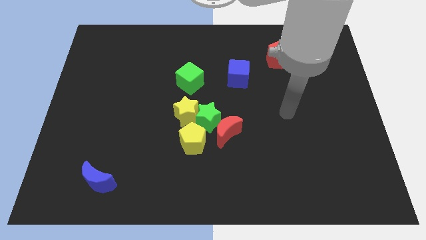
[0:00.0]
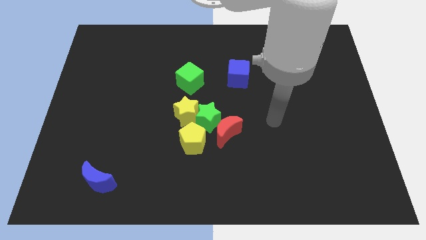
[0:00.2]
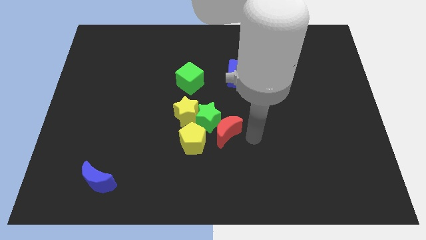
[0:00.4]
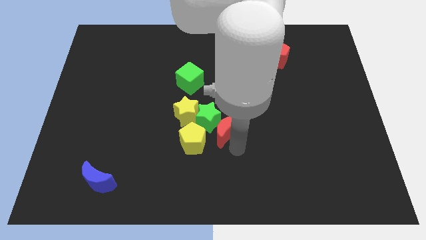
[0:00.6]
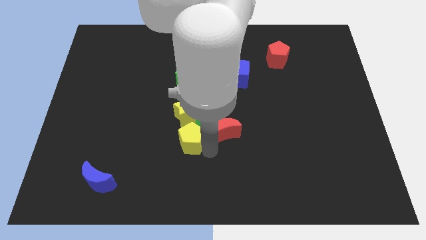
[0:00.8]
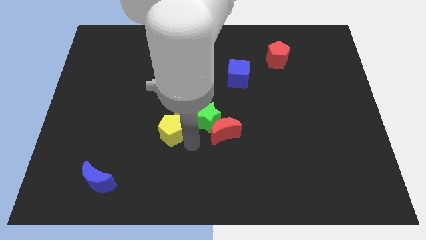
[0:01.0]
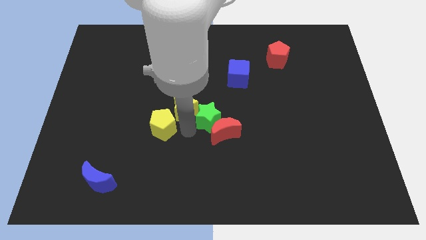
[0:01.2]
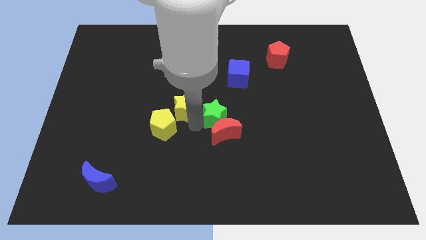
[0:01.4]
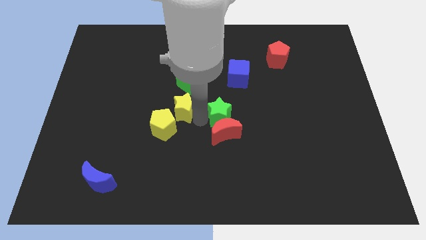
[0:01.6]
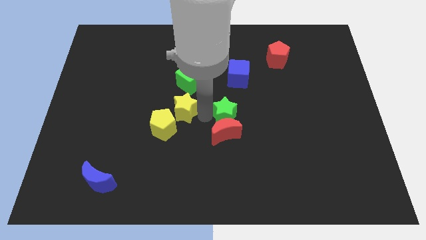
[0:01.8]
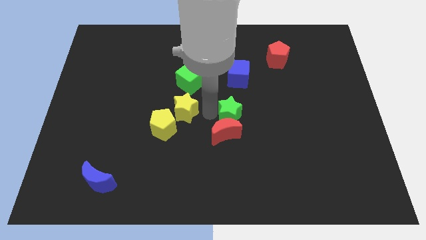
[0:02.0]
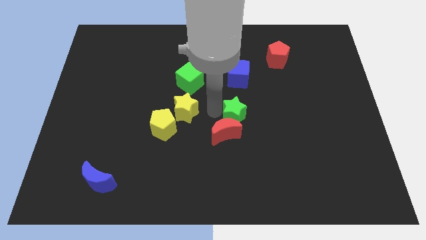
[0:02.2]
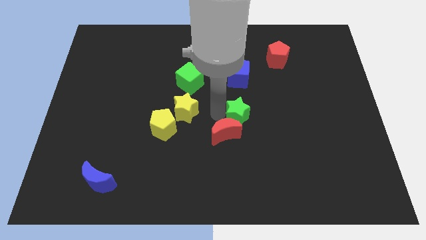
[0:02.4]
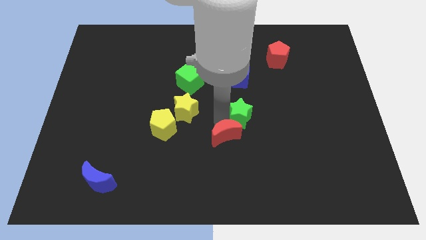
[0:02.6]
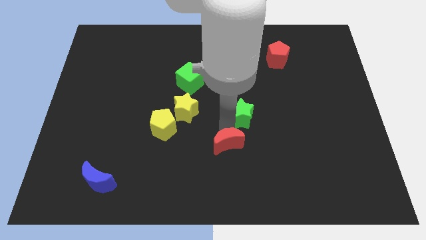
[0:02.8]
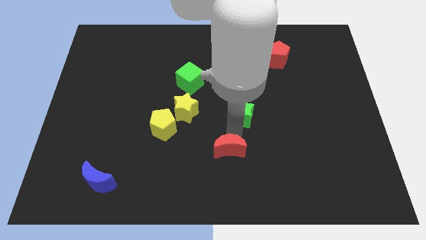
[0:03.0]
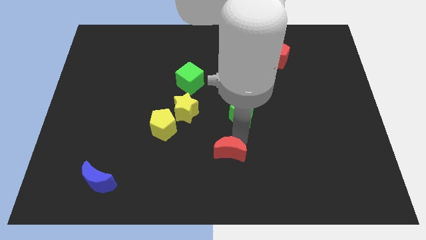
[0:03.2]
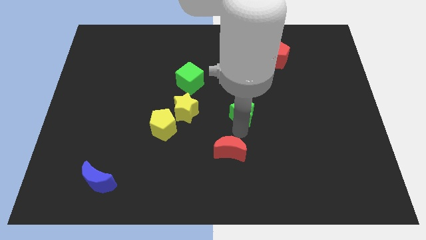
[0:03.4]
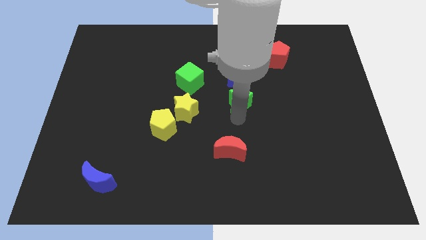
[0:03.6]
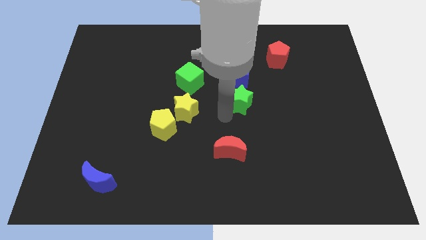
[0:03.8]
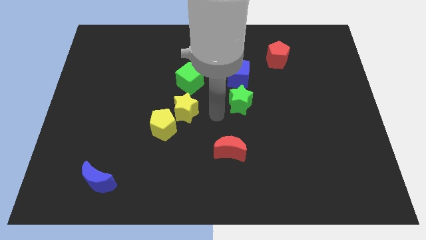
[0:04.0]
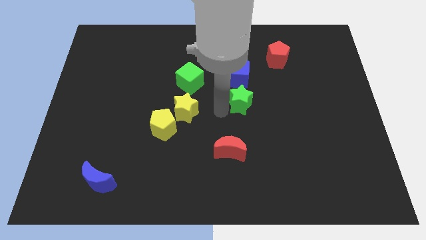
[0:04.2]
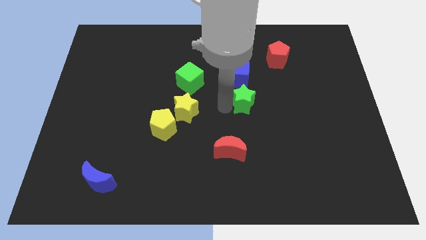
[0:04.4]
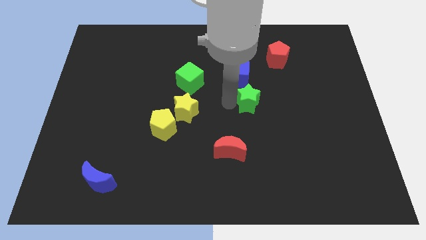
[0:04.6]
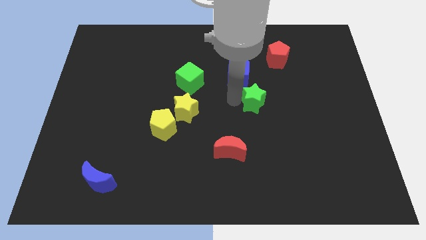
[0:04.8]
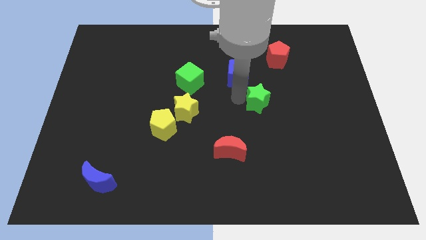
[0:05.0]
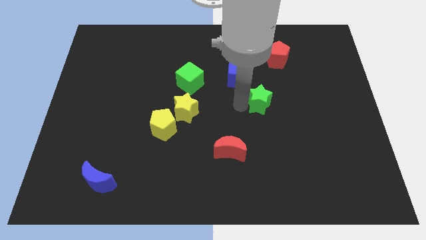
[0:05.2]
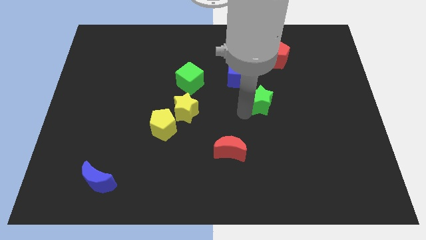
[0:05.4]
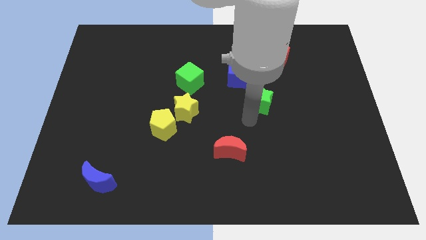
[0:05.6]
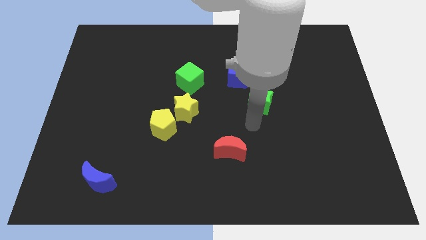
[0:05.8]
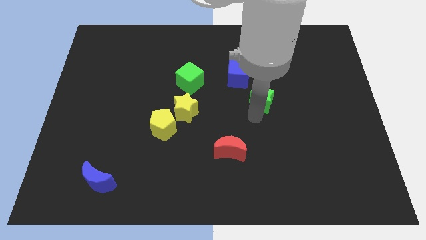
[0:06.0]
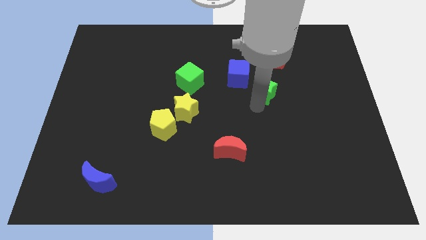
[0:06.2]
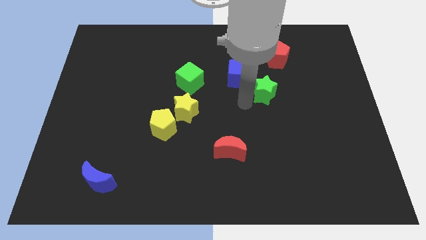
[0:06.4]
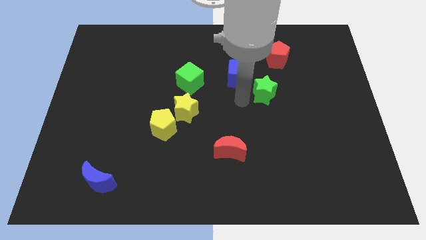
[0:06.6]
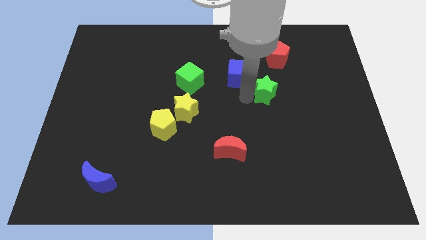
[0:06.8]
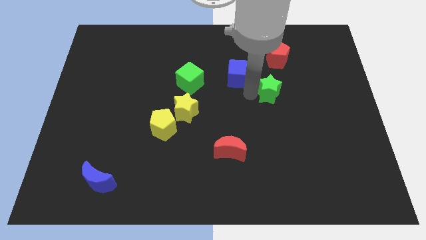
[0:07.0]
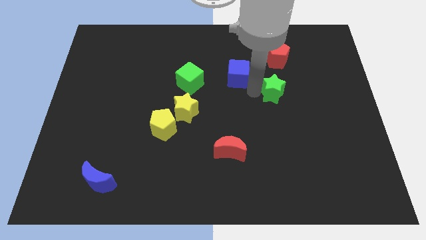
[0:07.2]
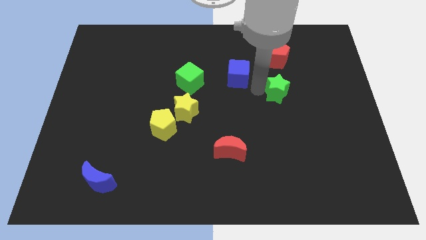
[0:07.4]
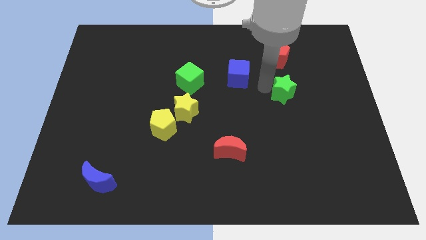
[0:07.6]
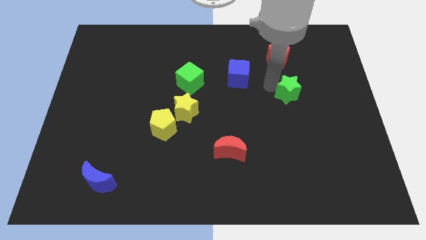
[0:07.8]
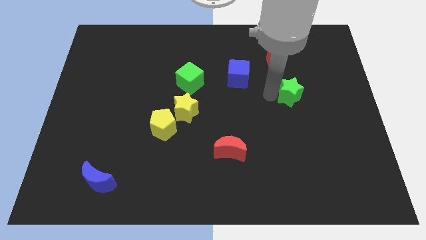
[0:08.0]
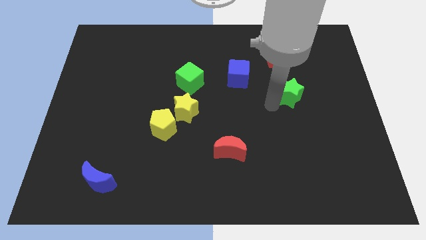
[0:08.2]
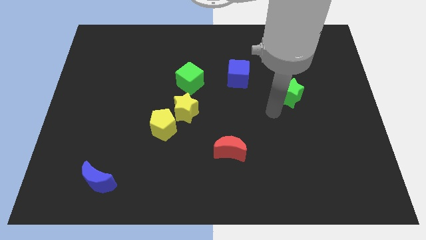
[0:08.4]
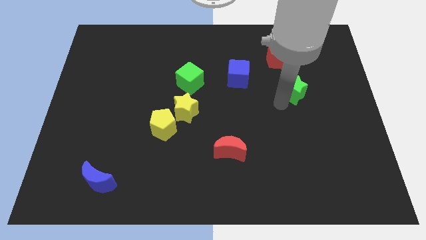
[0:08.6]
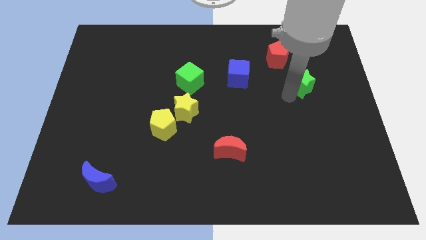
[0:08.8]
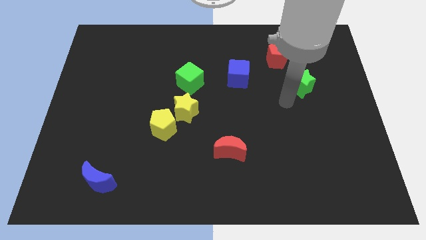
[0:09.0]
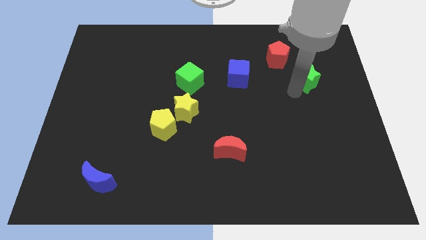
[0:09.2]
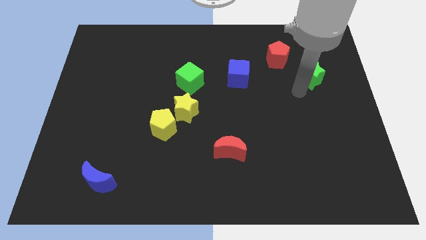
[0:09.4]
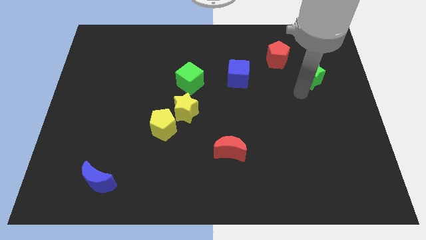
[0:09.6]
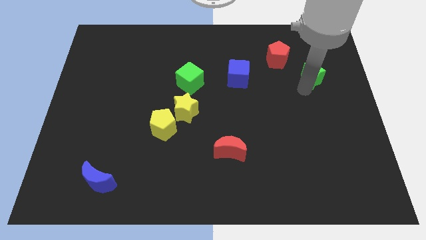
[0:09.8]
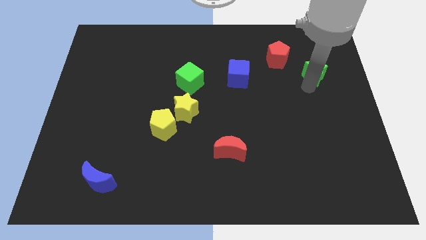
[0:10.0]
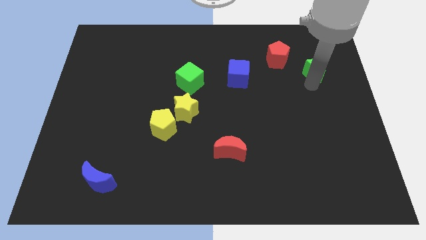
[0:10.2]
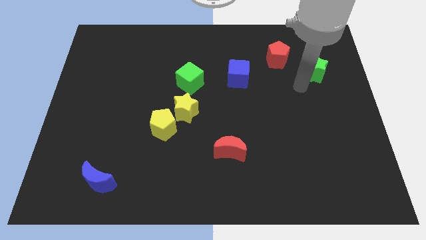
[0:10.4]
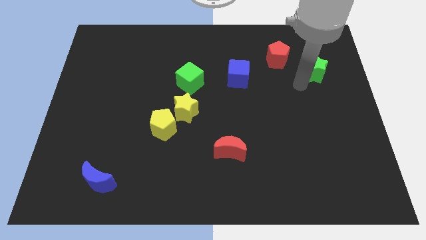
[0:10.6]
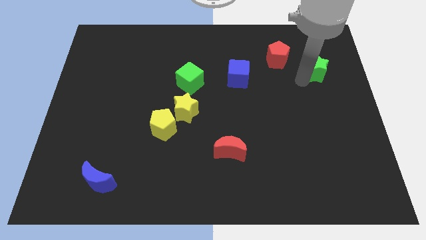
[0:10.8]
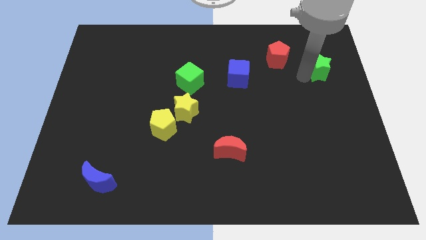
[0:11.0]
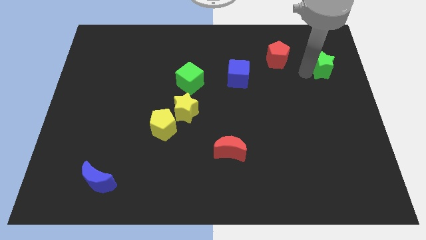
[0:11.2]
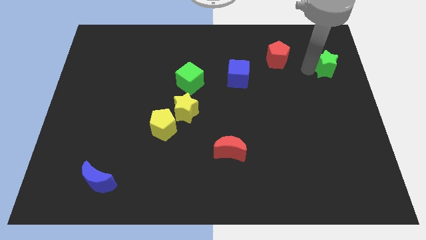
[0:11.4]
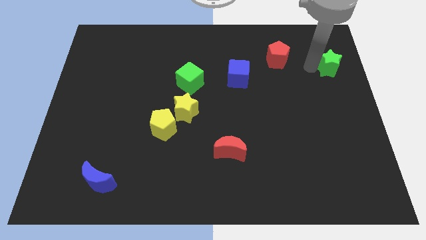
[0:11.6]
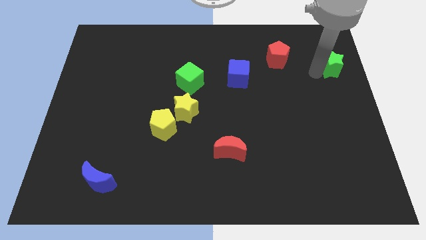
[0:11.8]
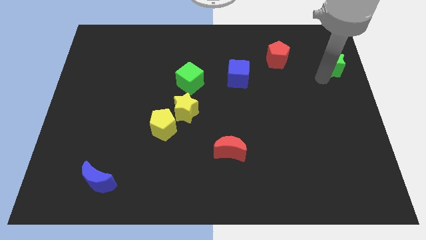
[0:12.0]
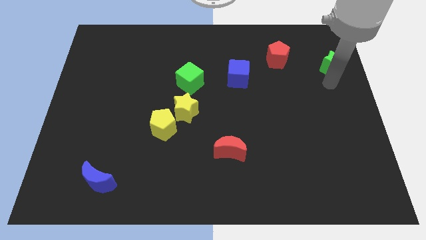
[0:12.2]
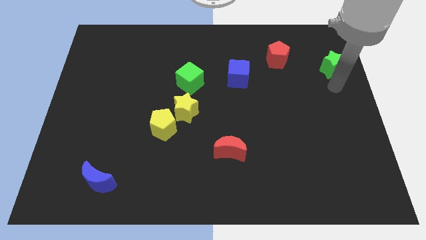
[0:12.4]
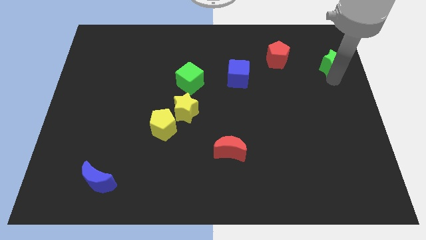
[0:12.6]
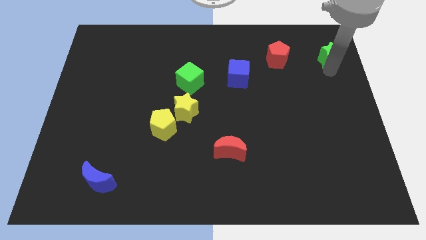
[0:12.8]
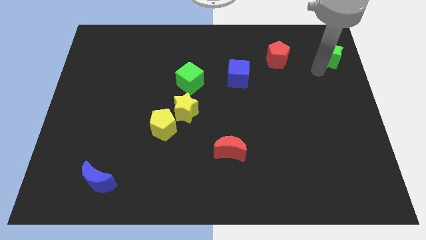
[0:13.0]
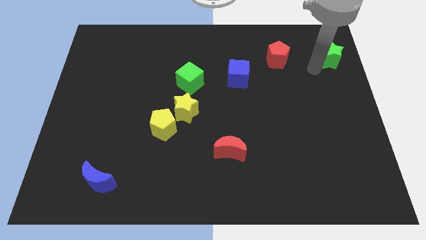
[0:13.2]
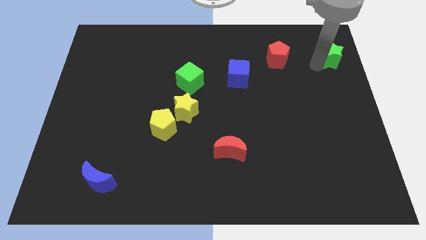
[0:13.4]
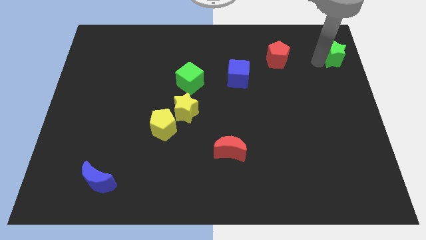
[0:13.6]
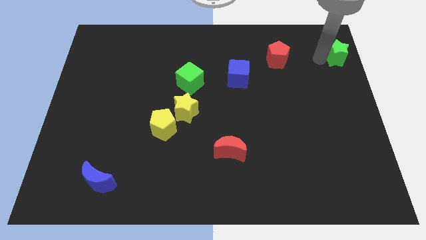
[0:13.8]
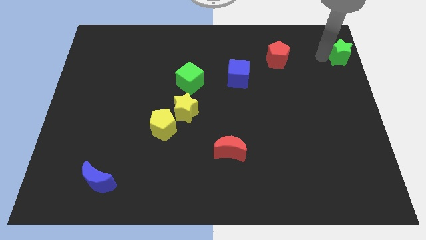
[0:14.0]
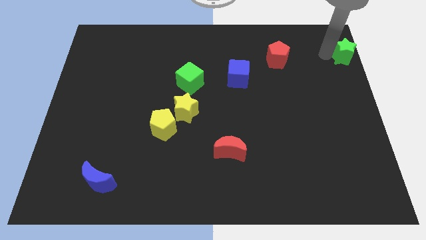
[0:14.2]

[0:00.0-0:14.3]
slide the green star to the top right corner
